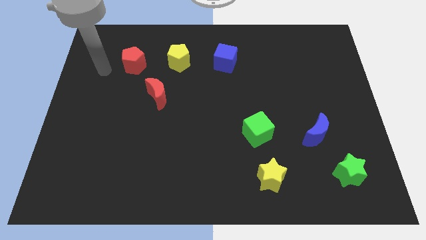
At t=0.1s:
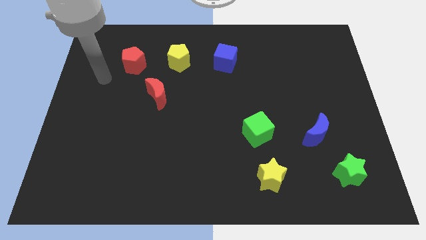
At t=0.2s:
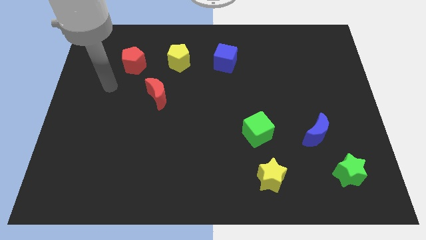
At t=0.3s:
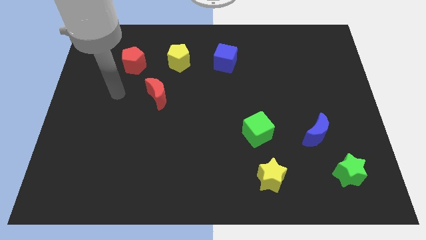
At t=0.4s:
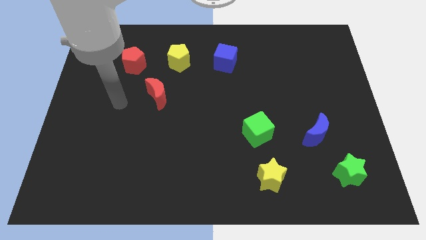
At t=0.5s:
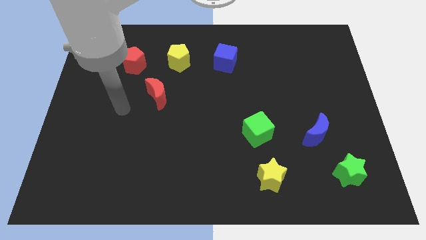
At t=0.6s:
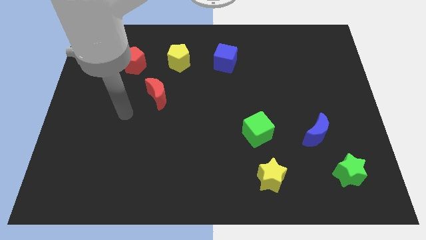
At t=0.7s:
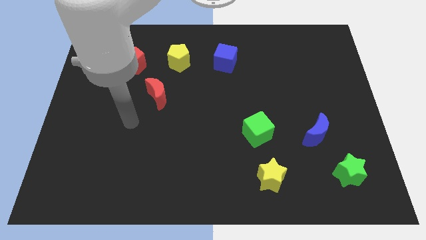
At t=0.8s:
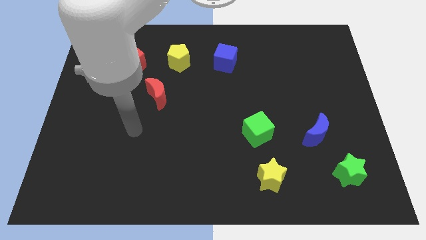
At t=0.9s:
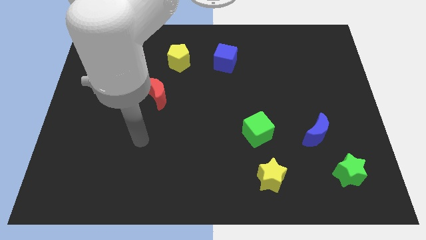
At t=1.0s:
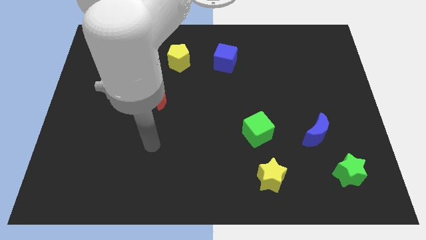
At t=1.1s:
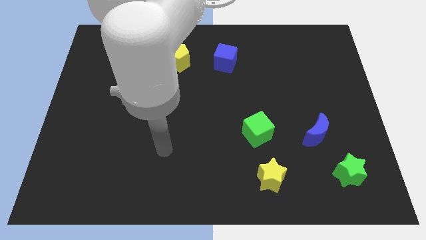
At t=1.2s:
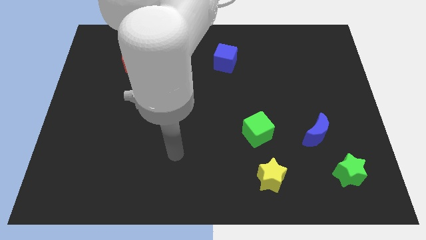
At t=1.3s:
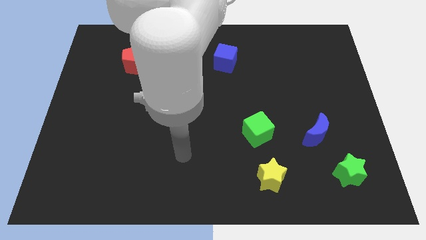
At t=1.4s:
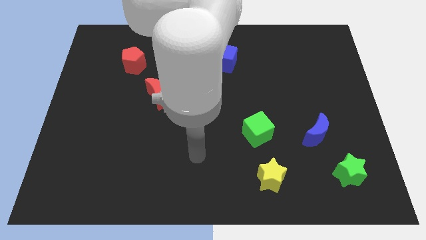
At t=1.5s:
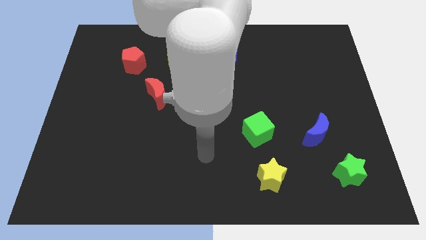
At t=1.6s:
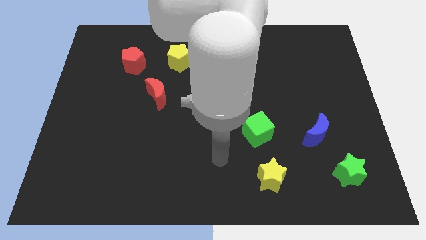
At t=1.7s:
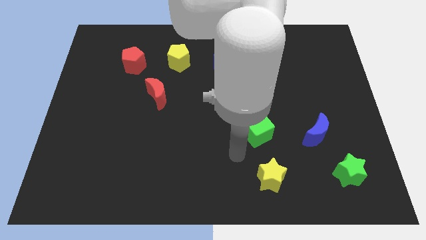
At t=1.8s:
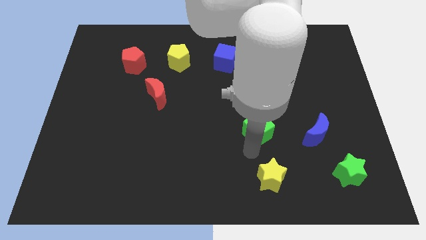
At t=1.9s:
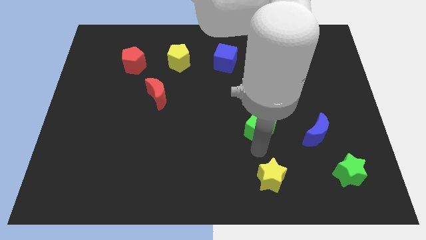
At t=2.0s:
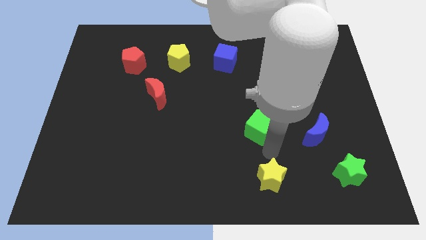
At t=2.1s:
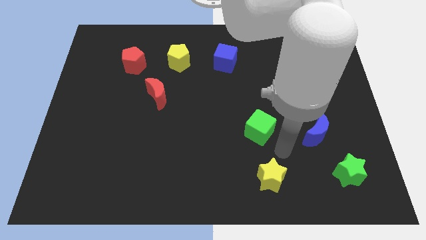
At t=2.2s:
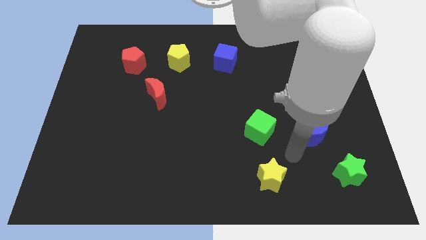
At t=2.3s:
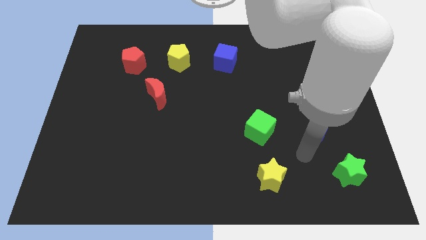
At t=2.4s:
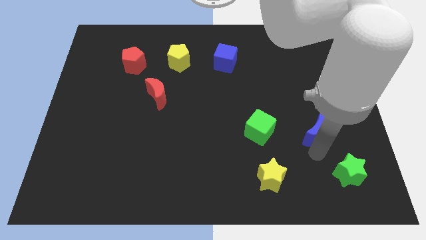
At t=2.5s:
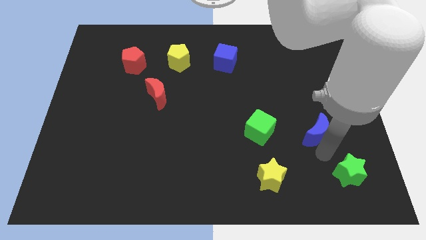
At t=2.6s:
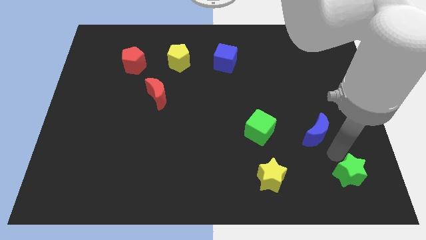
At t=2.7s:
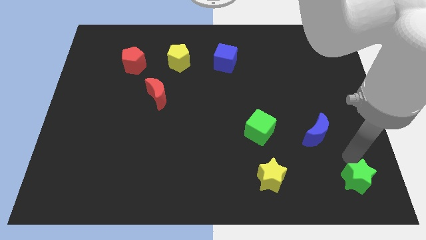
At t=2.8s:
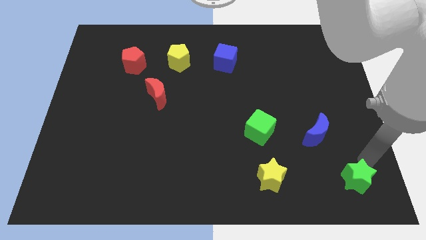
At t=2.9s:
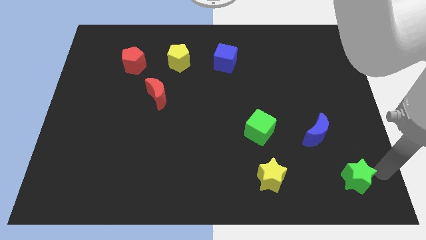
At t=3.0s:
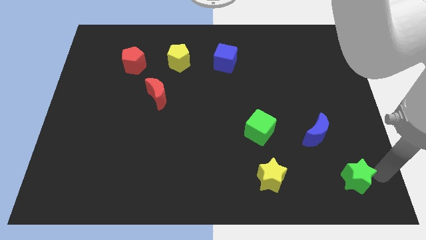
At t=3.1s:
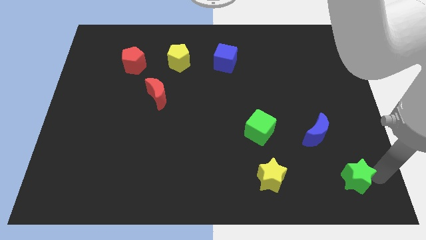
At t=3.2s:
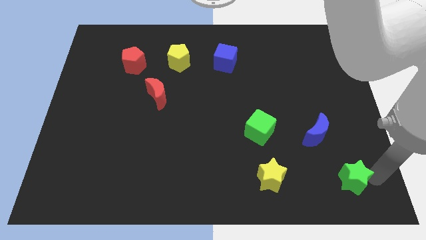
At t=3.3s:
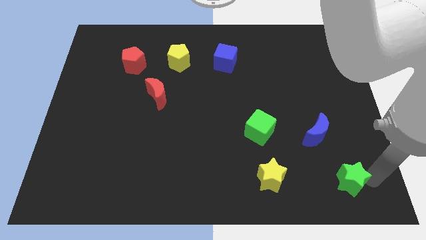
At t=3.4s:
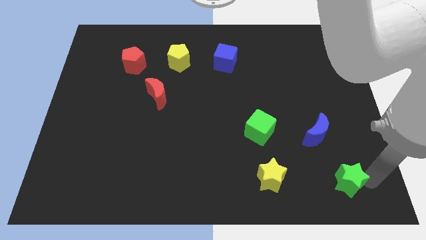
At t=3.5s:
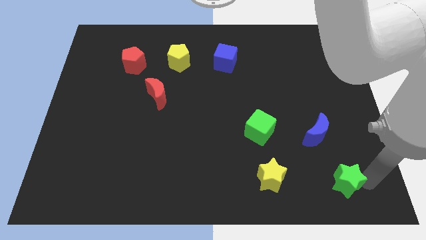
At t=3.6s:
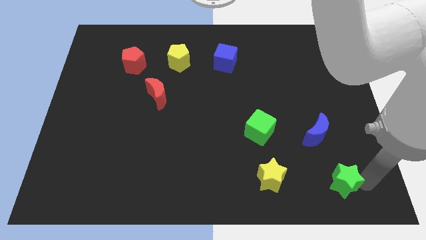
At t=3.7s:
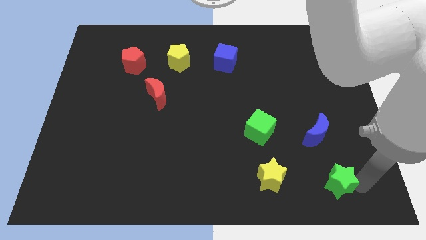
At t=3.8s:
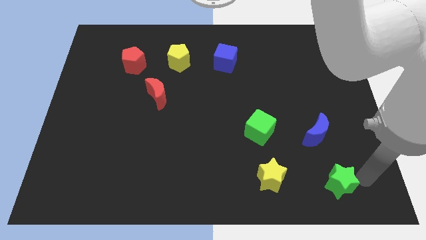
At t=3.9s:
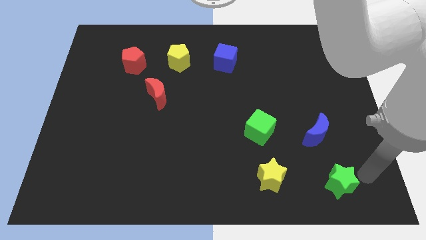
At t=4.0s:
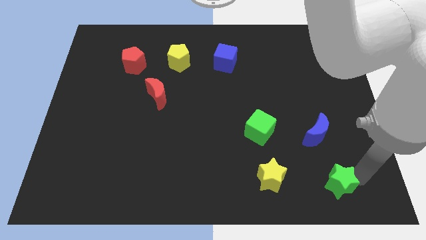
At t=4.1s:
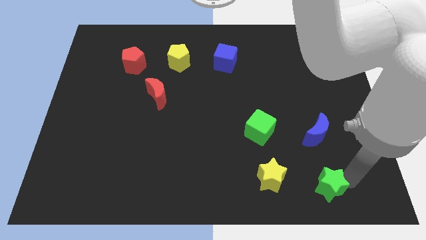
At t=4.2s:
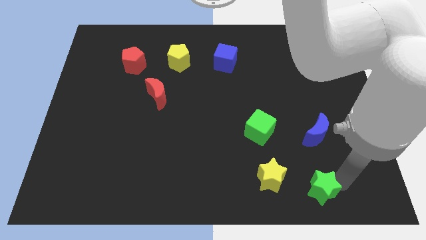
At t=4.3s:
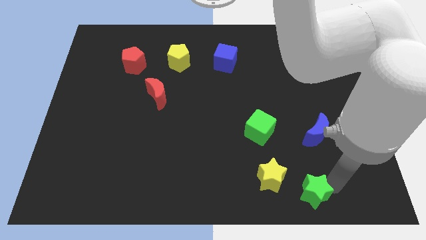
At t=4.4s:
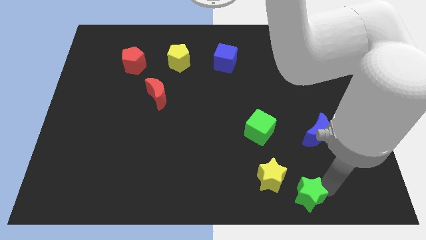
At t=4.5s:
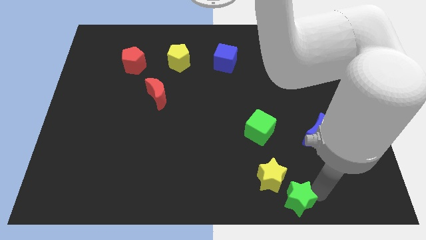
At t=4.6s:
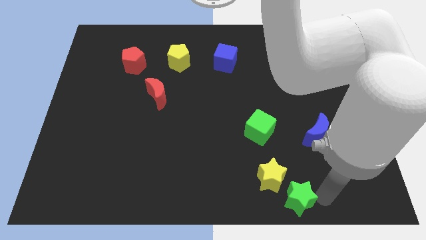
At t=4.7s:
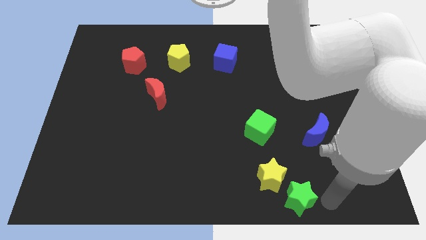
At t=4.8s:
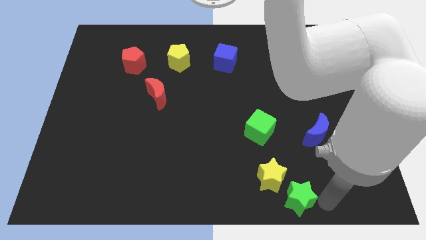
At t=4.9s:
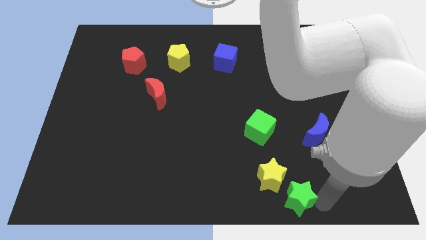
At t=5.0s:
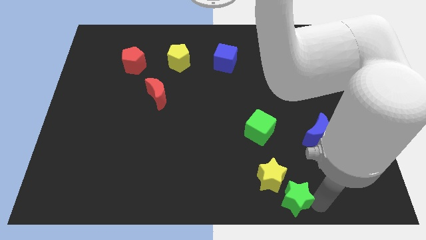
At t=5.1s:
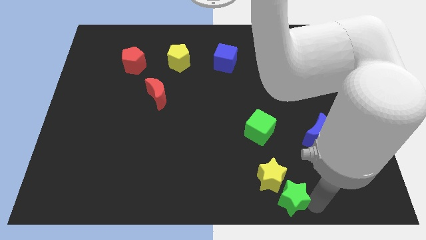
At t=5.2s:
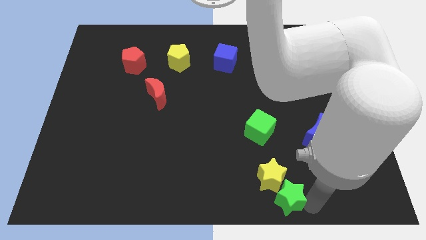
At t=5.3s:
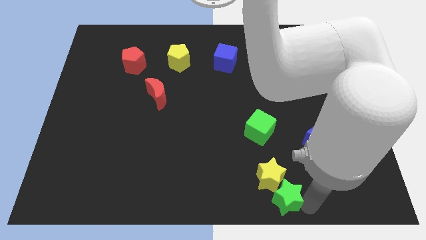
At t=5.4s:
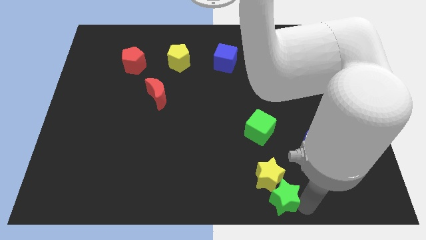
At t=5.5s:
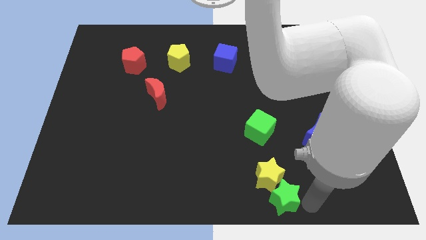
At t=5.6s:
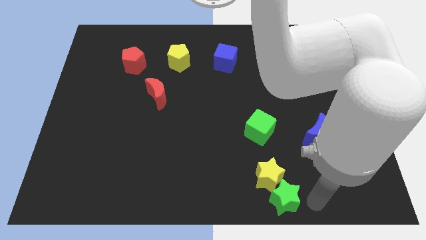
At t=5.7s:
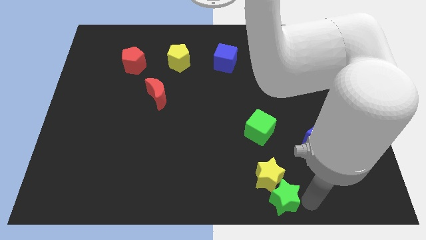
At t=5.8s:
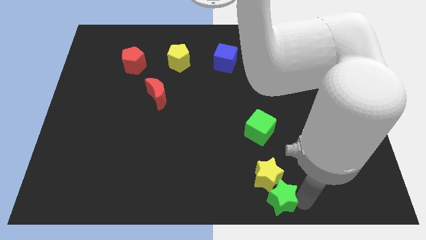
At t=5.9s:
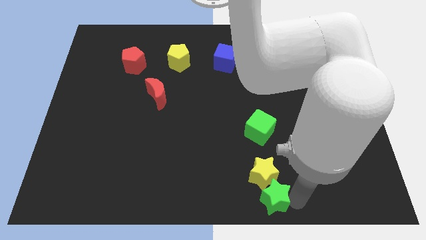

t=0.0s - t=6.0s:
move the green star to the bottom side of the green cube

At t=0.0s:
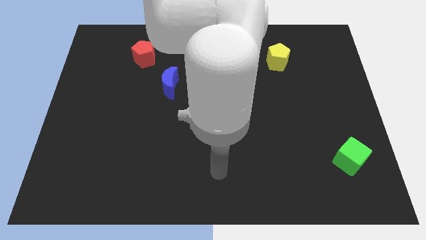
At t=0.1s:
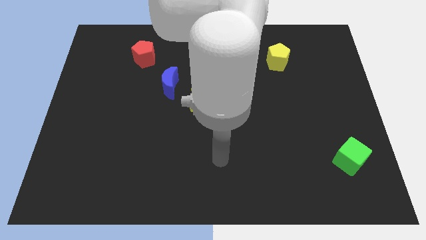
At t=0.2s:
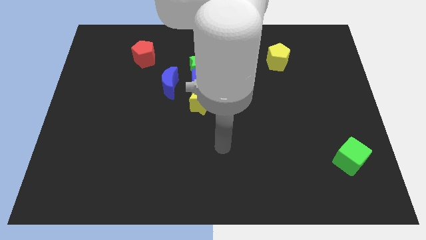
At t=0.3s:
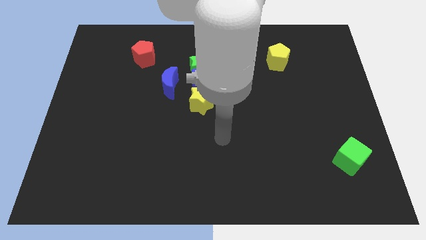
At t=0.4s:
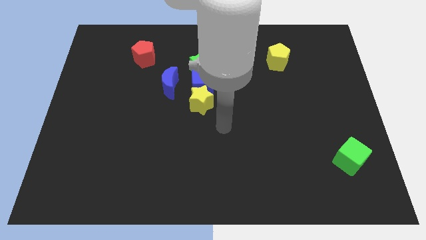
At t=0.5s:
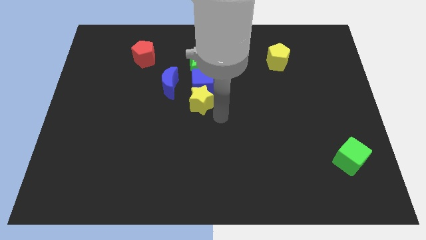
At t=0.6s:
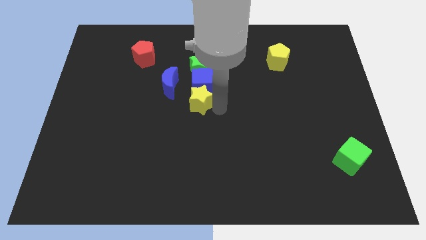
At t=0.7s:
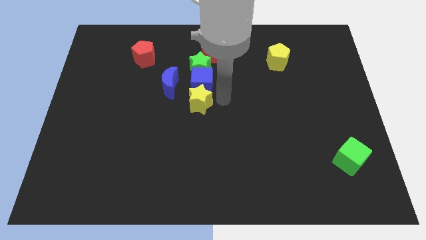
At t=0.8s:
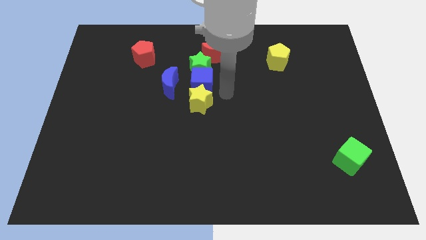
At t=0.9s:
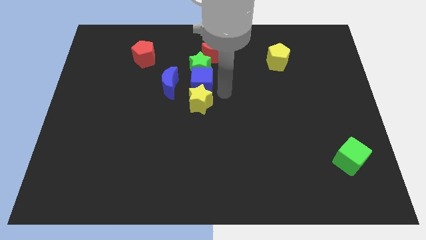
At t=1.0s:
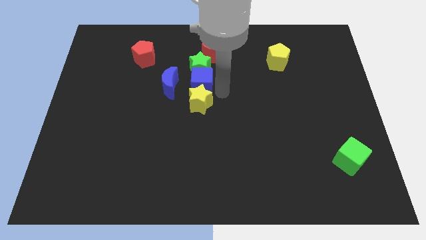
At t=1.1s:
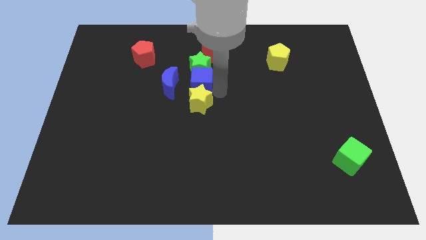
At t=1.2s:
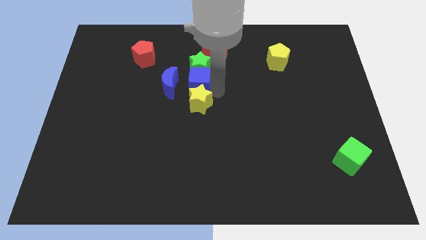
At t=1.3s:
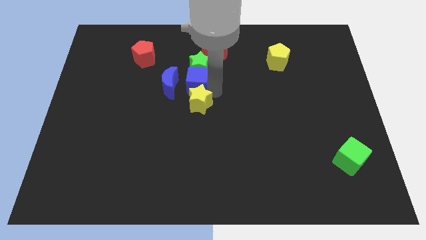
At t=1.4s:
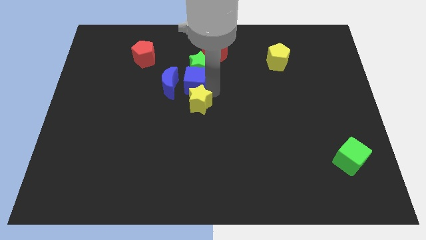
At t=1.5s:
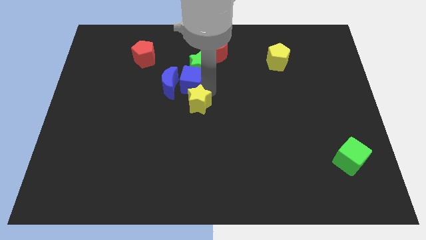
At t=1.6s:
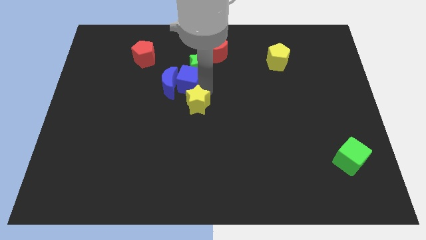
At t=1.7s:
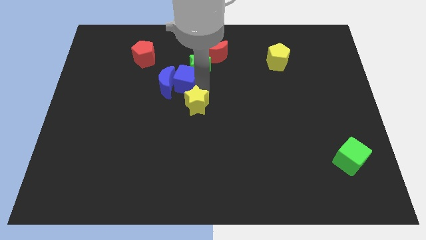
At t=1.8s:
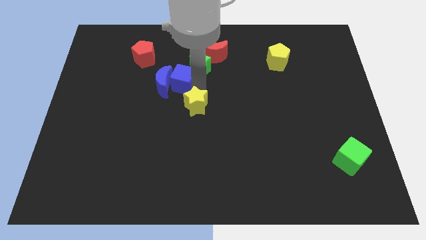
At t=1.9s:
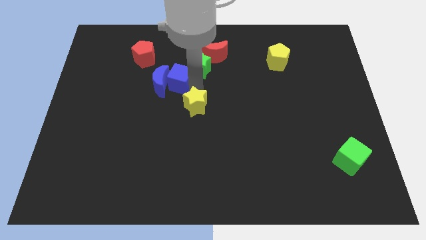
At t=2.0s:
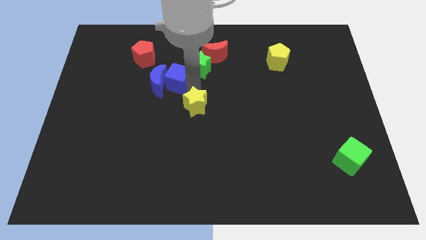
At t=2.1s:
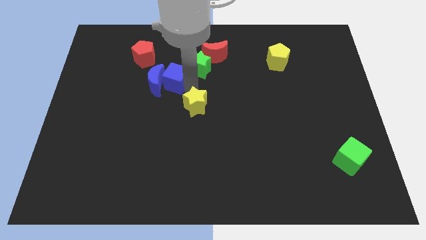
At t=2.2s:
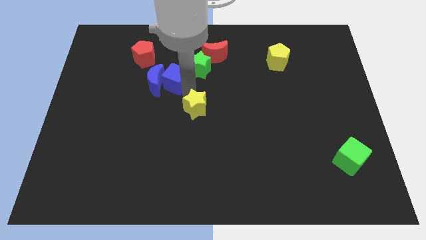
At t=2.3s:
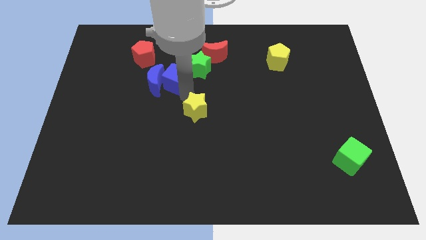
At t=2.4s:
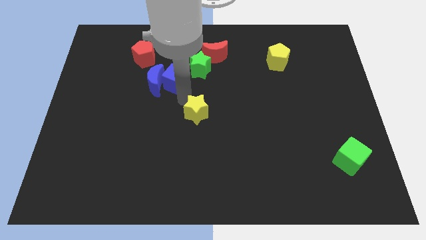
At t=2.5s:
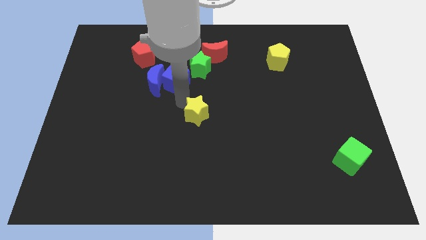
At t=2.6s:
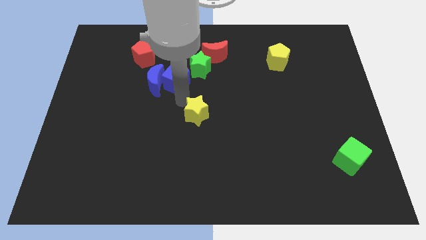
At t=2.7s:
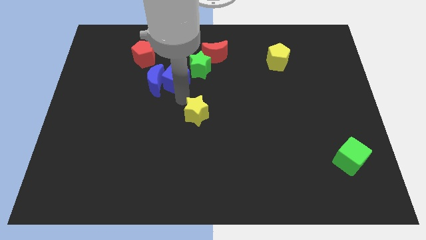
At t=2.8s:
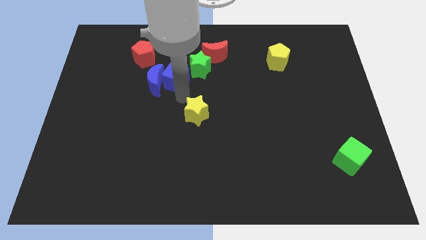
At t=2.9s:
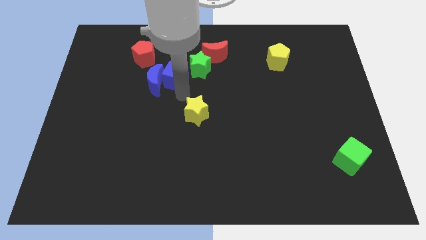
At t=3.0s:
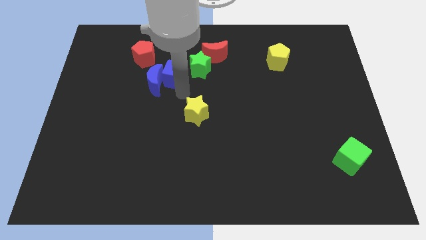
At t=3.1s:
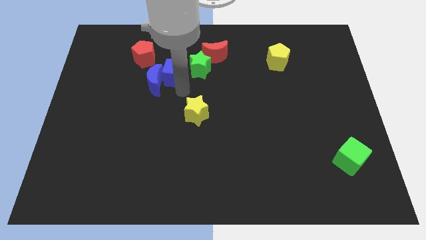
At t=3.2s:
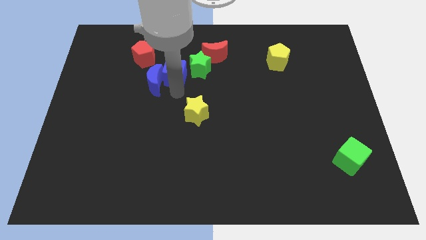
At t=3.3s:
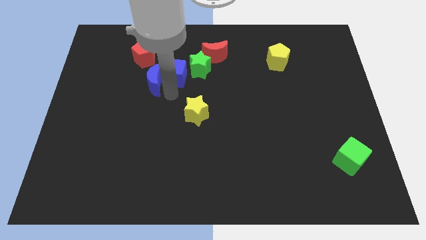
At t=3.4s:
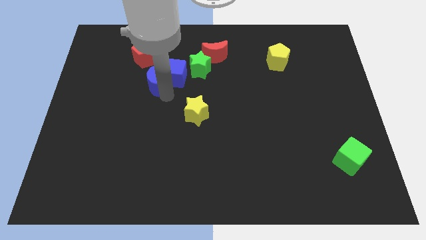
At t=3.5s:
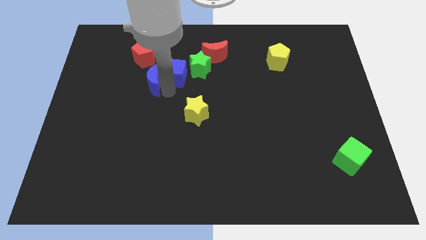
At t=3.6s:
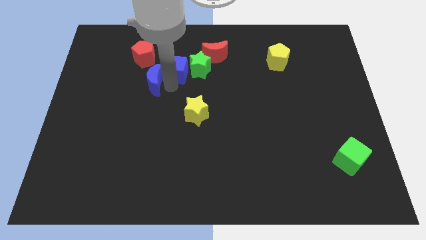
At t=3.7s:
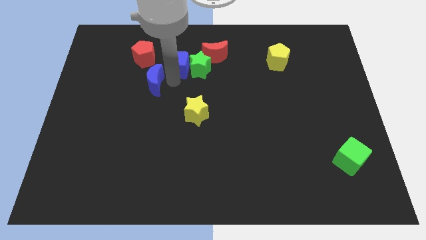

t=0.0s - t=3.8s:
move the blue cube just right of the red pentagon
